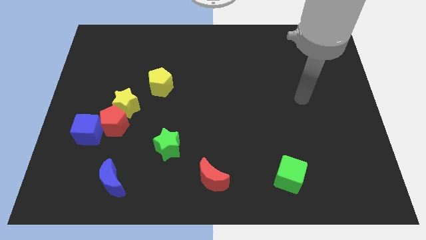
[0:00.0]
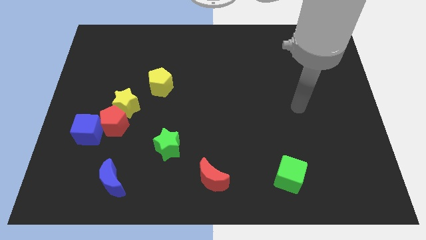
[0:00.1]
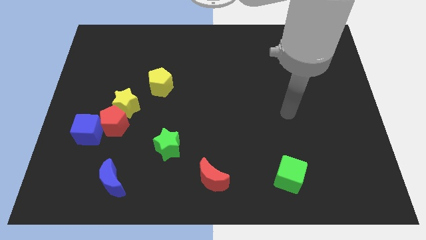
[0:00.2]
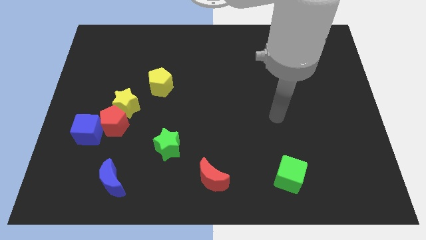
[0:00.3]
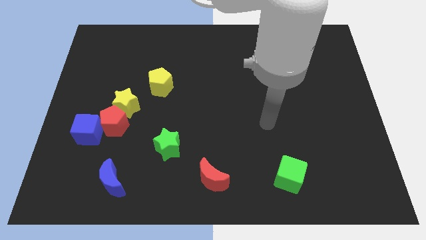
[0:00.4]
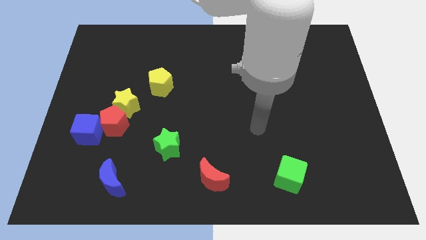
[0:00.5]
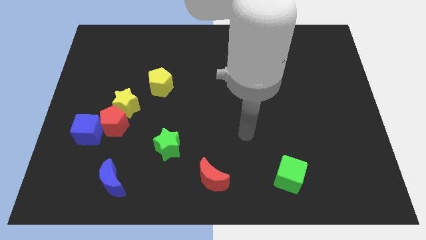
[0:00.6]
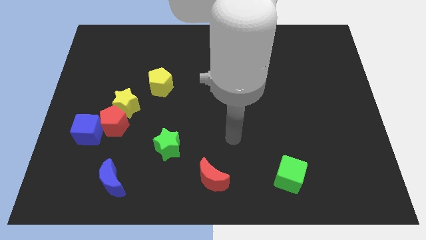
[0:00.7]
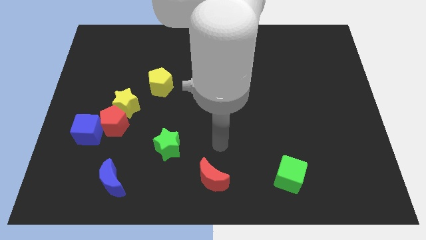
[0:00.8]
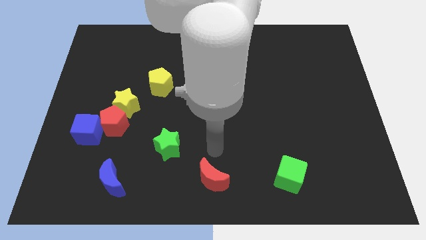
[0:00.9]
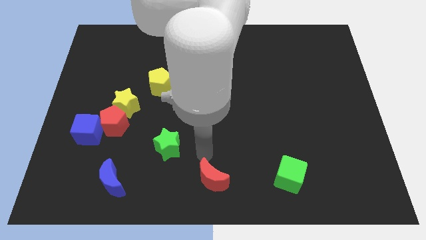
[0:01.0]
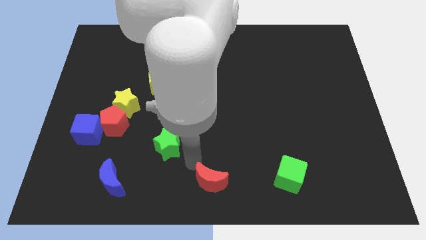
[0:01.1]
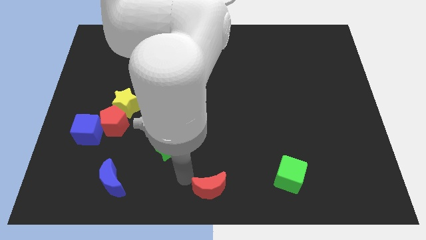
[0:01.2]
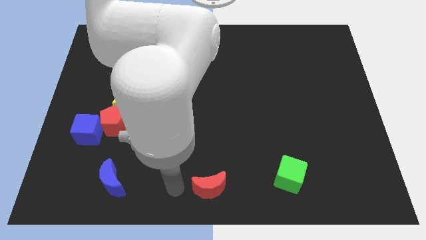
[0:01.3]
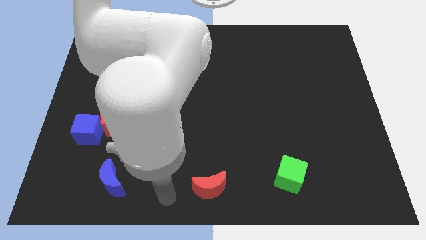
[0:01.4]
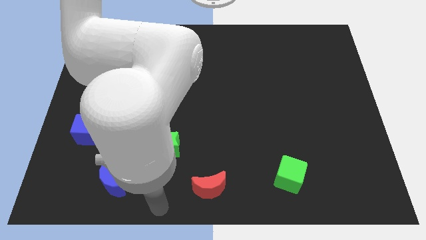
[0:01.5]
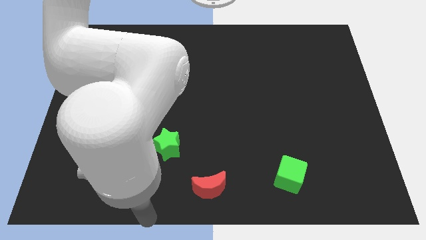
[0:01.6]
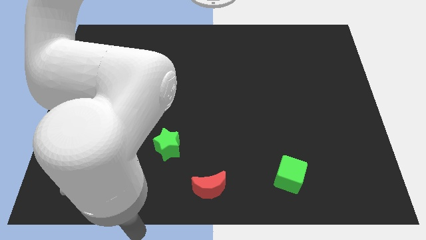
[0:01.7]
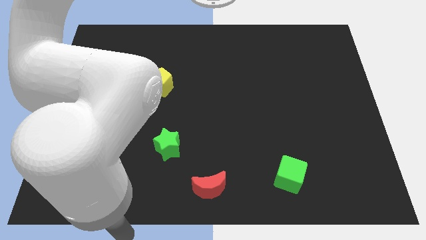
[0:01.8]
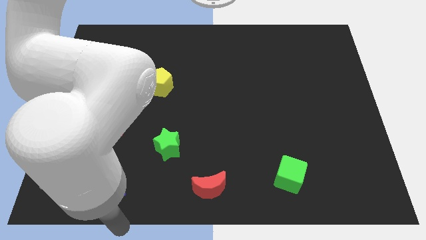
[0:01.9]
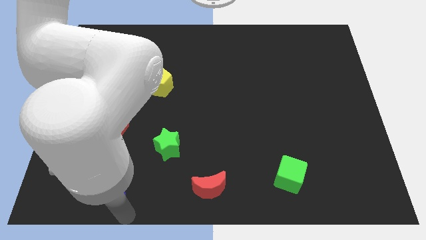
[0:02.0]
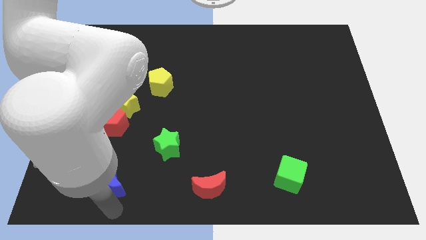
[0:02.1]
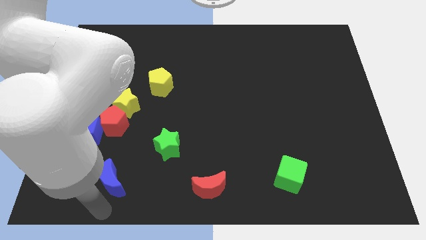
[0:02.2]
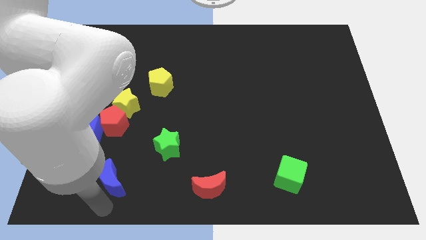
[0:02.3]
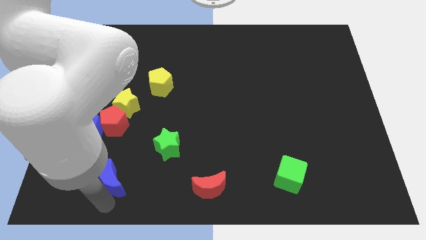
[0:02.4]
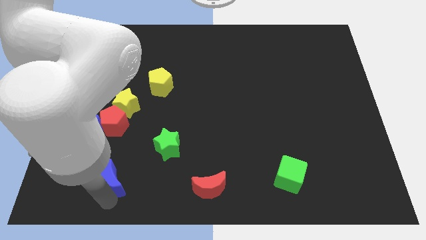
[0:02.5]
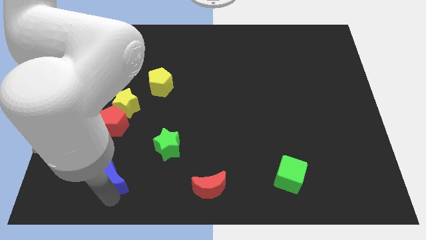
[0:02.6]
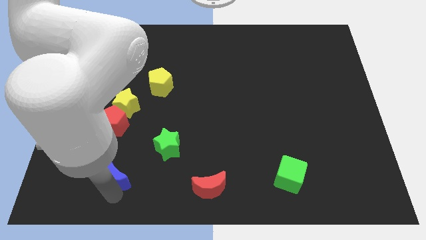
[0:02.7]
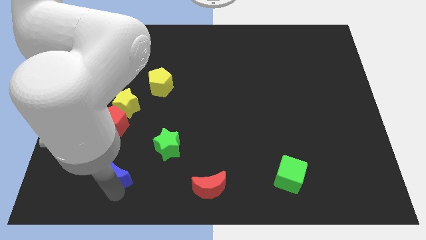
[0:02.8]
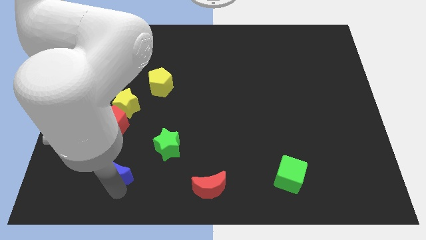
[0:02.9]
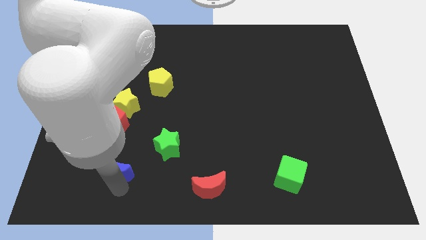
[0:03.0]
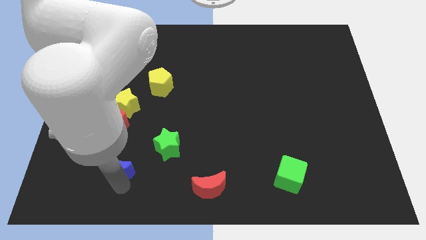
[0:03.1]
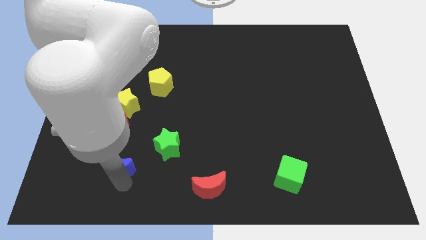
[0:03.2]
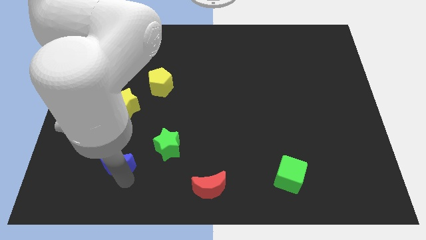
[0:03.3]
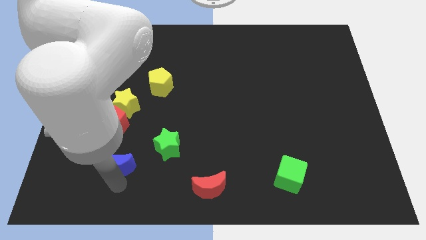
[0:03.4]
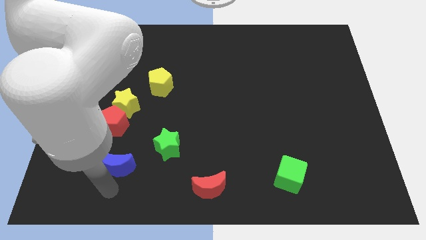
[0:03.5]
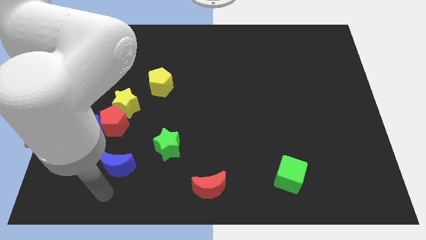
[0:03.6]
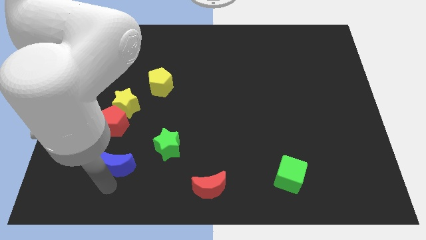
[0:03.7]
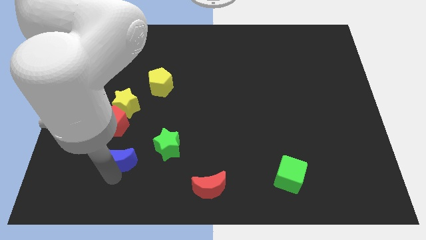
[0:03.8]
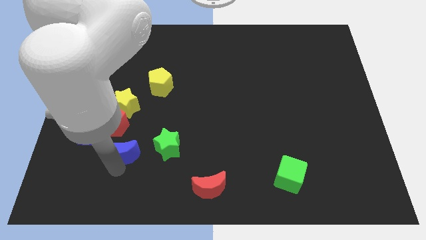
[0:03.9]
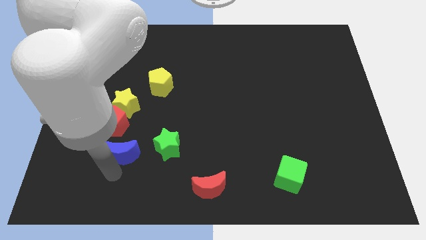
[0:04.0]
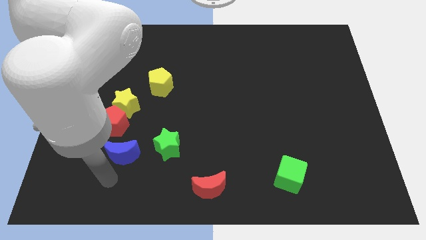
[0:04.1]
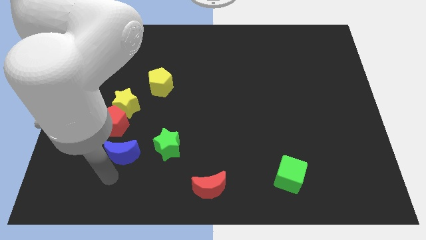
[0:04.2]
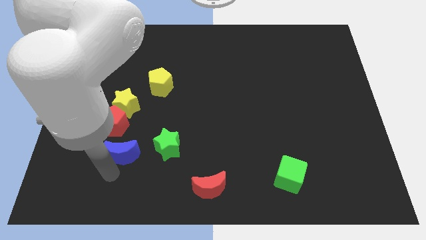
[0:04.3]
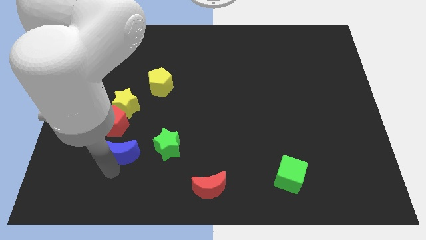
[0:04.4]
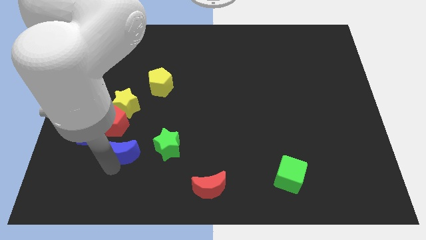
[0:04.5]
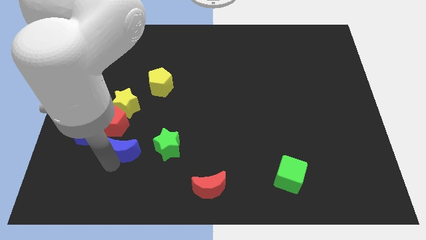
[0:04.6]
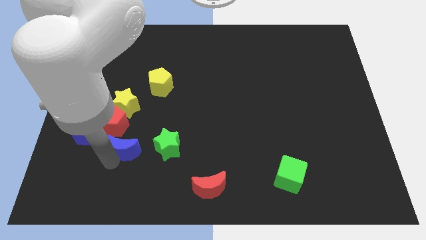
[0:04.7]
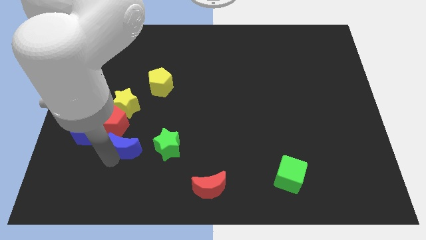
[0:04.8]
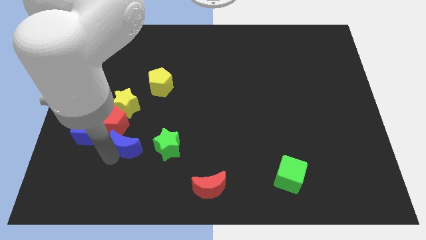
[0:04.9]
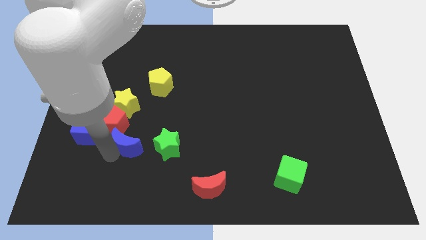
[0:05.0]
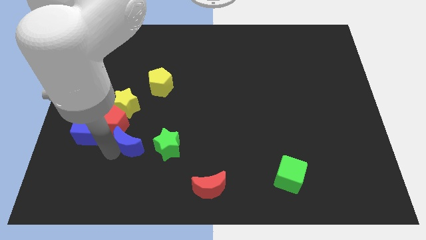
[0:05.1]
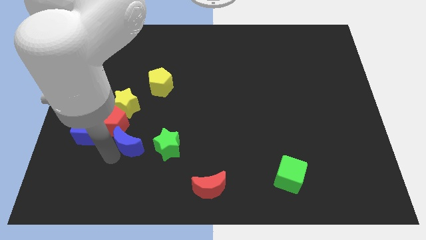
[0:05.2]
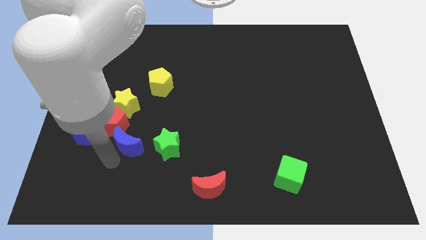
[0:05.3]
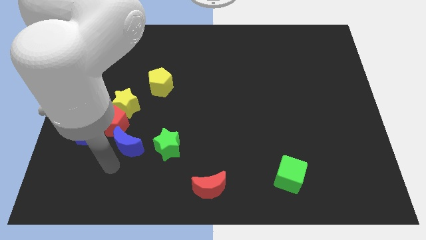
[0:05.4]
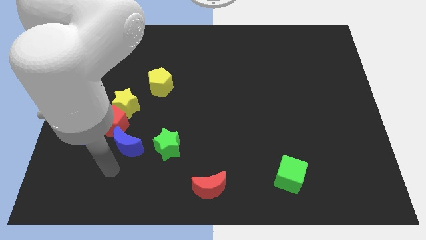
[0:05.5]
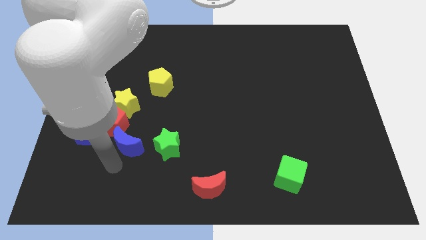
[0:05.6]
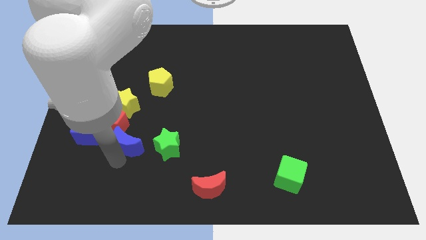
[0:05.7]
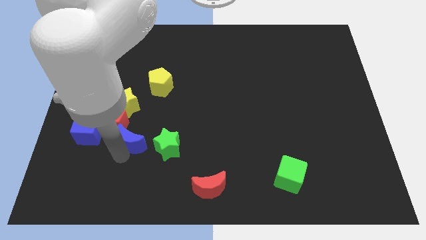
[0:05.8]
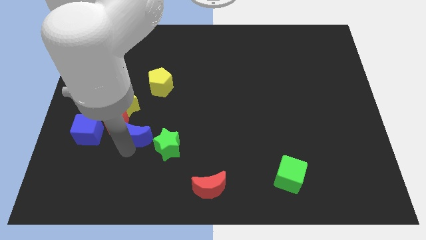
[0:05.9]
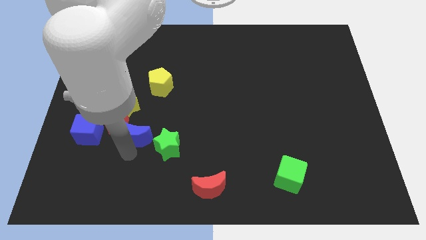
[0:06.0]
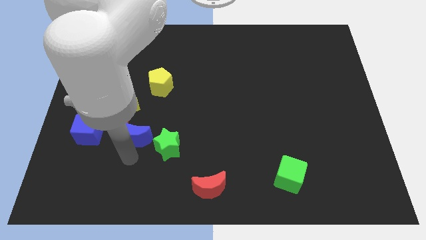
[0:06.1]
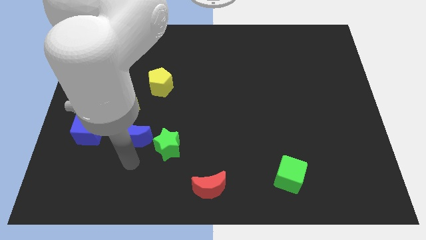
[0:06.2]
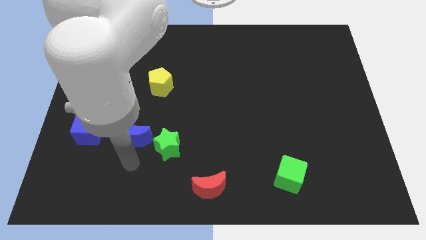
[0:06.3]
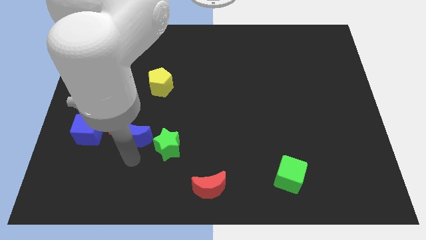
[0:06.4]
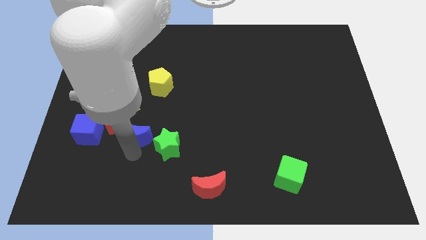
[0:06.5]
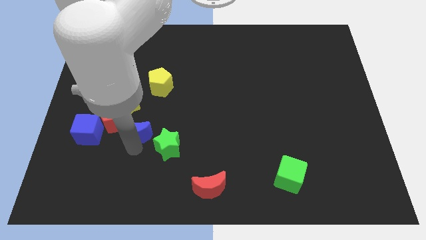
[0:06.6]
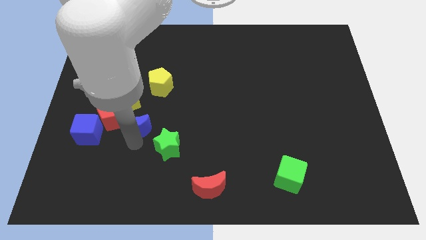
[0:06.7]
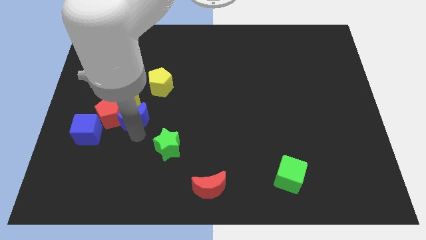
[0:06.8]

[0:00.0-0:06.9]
slide the blue moon next to the yellow star
